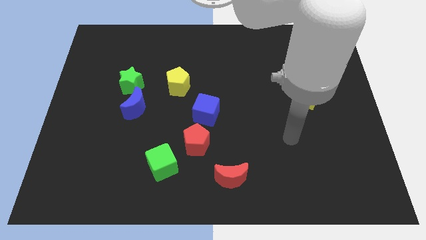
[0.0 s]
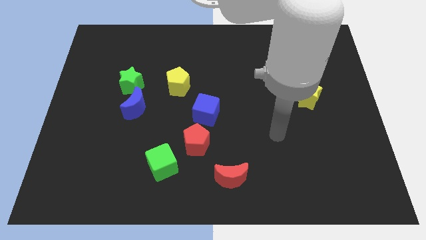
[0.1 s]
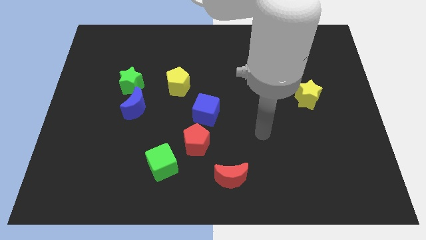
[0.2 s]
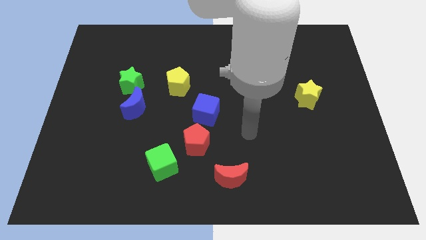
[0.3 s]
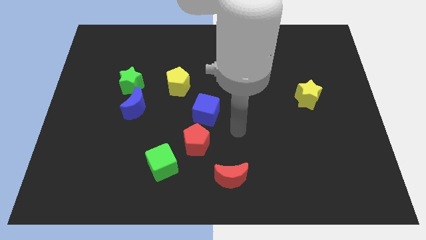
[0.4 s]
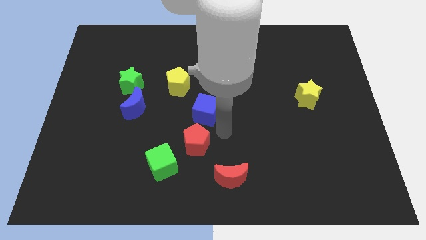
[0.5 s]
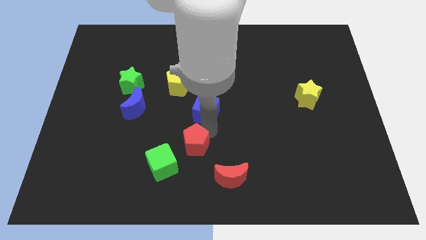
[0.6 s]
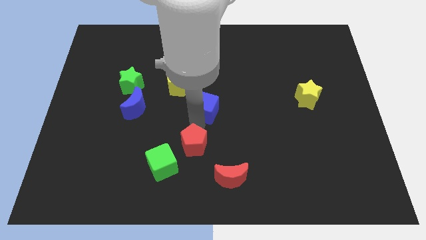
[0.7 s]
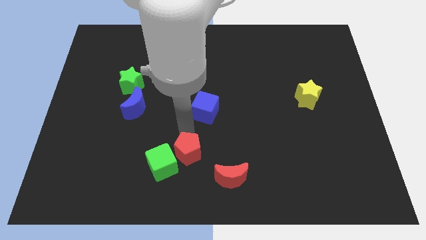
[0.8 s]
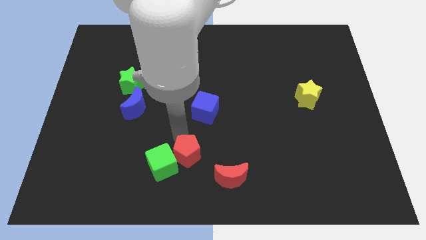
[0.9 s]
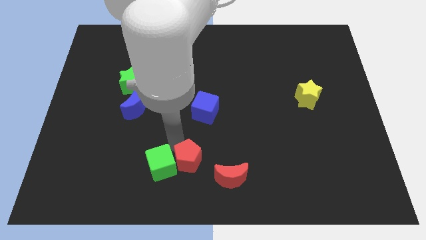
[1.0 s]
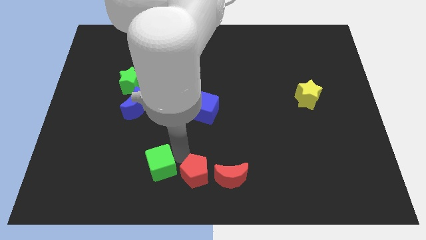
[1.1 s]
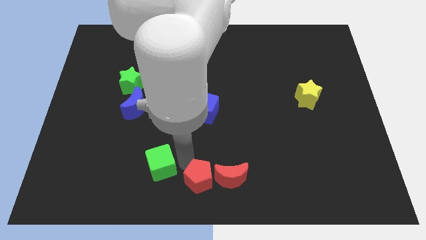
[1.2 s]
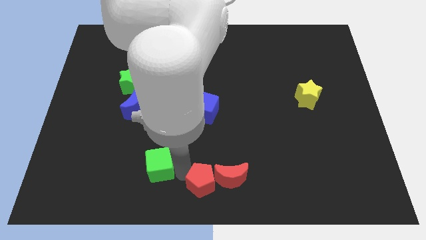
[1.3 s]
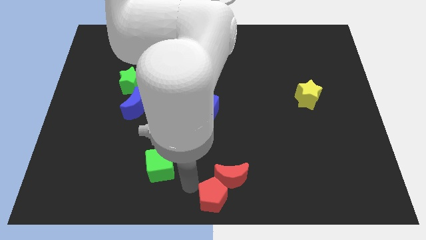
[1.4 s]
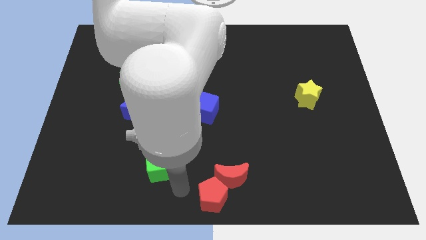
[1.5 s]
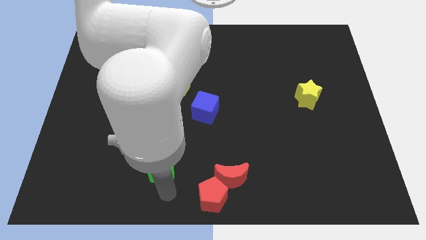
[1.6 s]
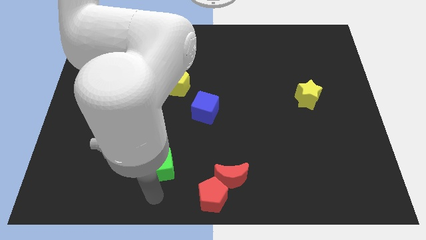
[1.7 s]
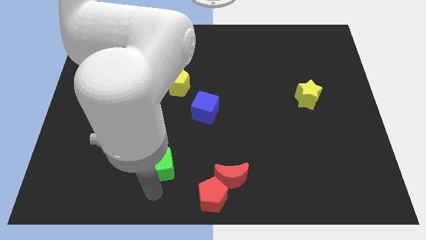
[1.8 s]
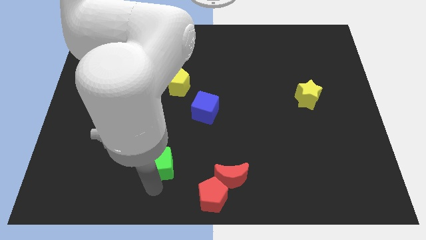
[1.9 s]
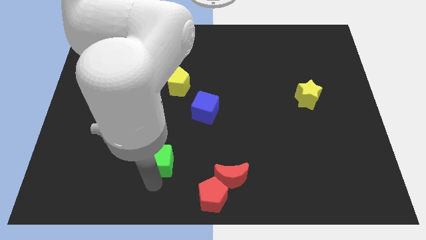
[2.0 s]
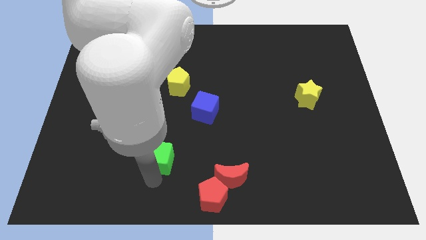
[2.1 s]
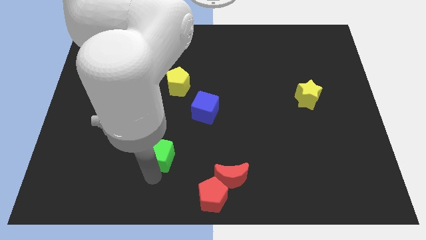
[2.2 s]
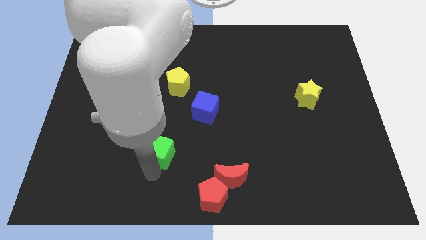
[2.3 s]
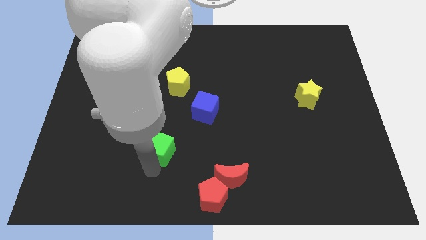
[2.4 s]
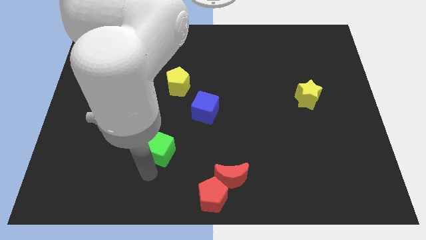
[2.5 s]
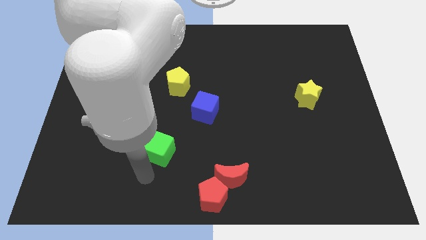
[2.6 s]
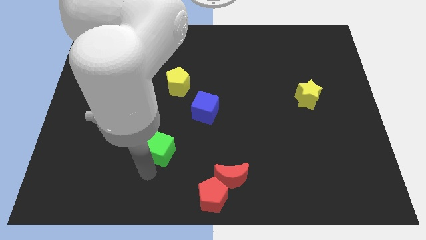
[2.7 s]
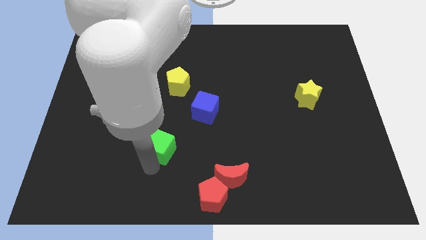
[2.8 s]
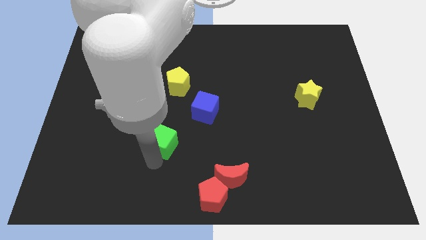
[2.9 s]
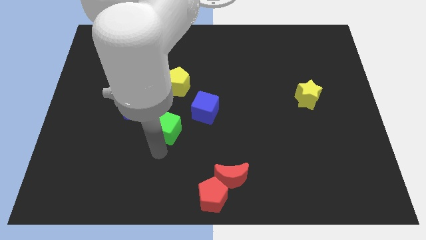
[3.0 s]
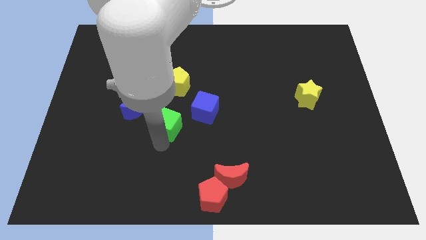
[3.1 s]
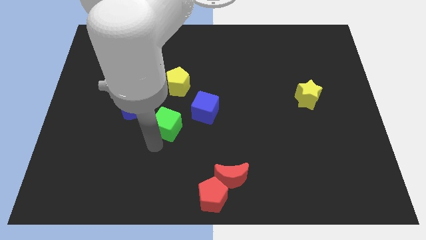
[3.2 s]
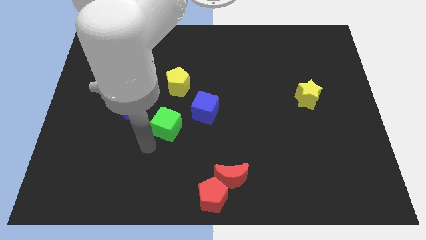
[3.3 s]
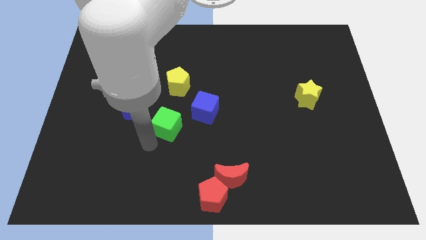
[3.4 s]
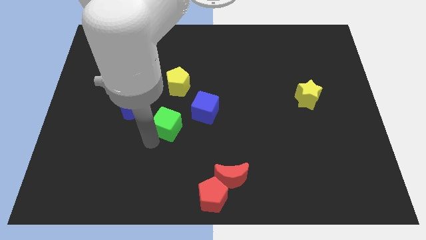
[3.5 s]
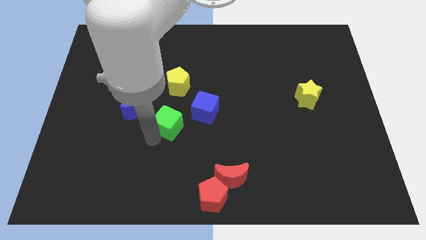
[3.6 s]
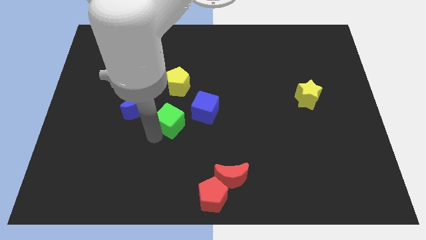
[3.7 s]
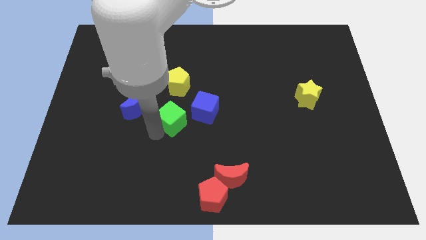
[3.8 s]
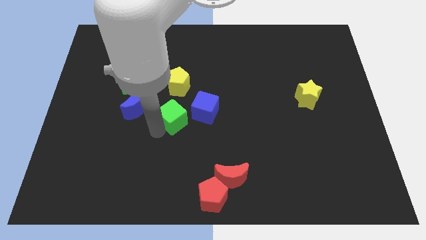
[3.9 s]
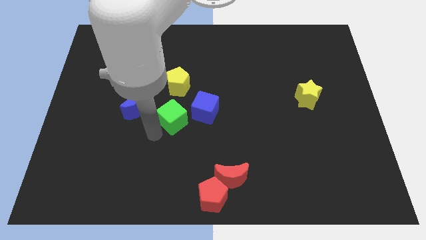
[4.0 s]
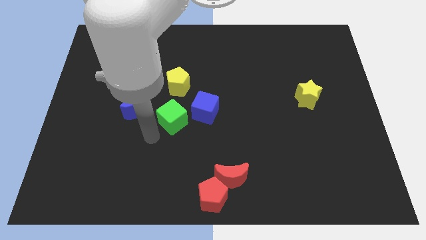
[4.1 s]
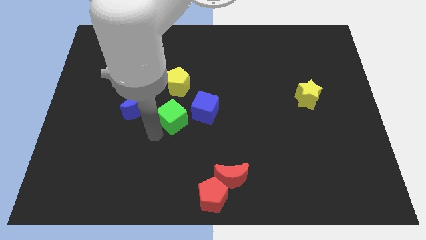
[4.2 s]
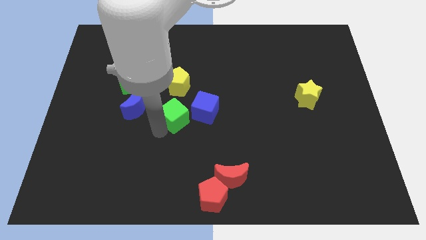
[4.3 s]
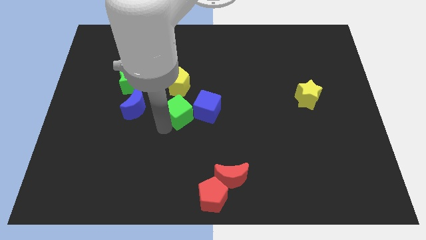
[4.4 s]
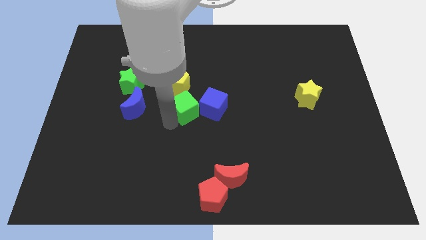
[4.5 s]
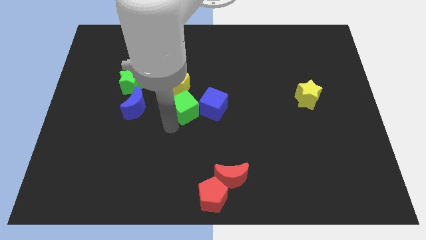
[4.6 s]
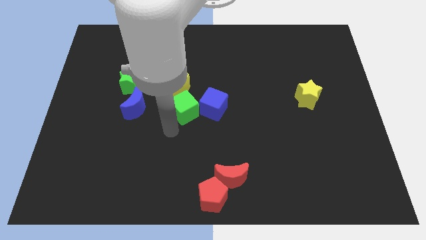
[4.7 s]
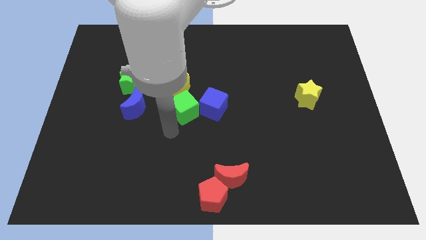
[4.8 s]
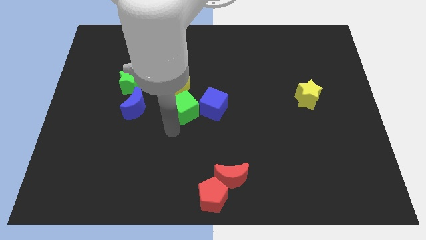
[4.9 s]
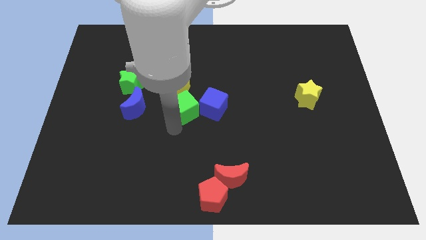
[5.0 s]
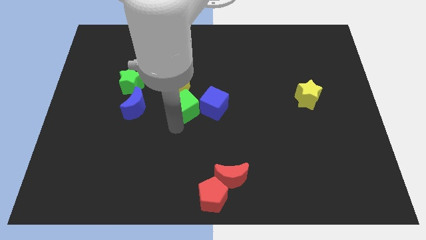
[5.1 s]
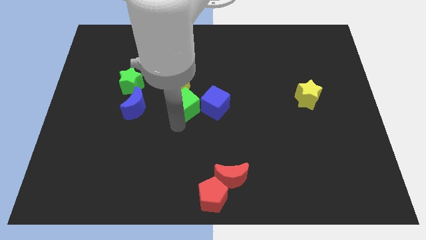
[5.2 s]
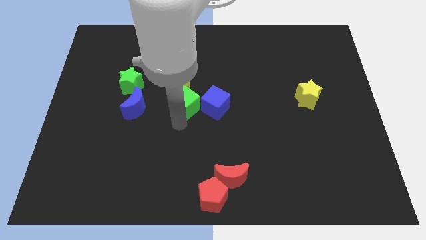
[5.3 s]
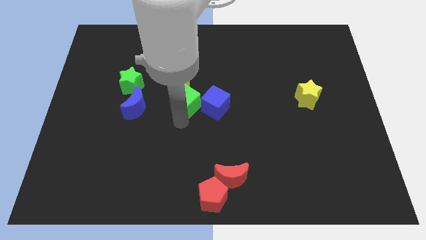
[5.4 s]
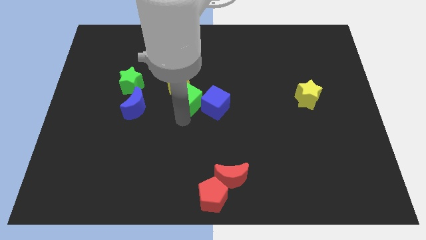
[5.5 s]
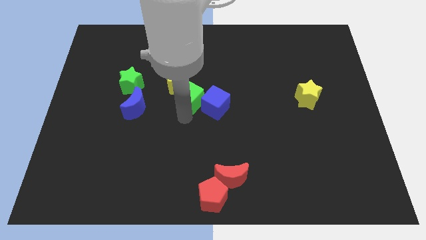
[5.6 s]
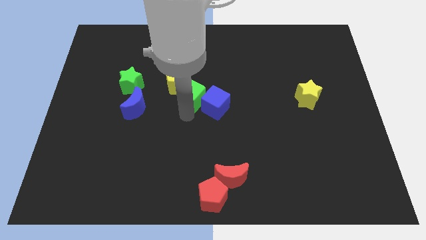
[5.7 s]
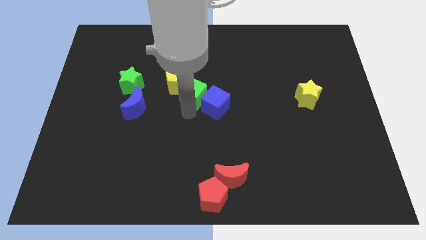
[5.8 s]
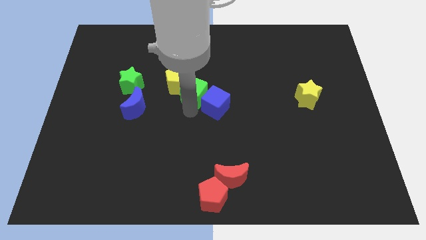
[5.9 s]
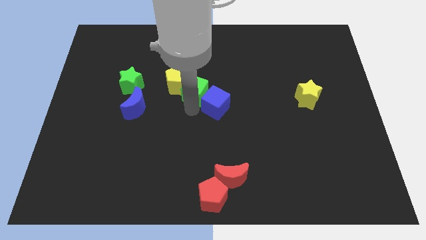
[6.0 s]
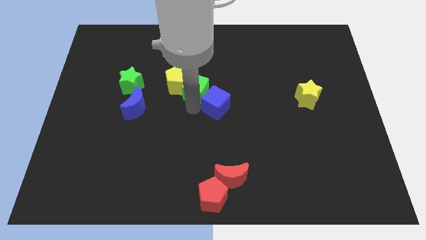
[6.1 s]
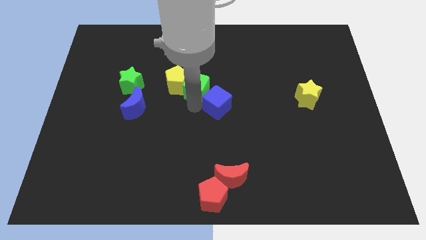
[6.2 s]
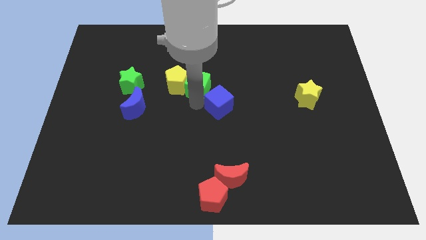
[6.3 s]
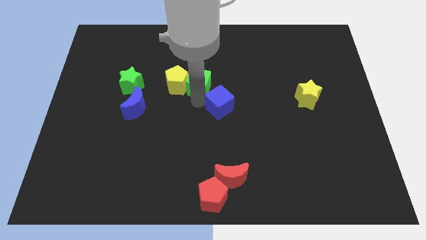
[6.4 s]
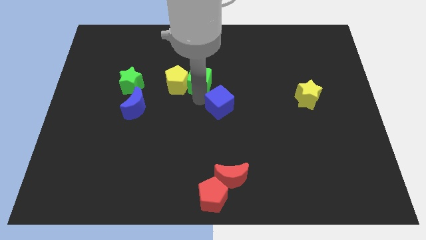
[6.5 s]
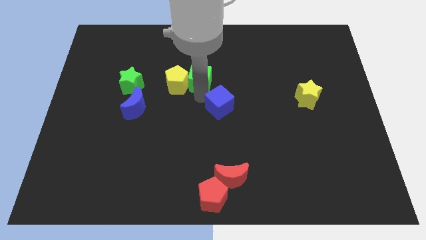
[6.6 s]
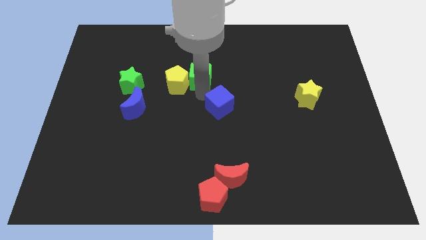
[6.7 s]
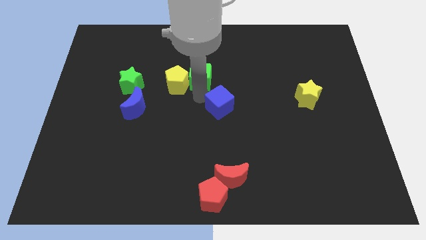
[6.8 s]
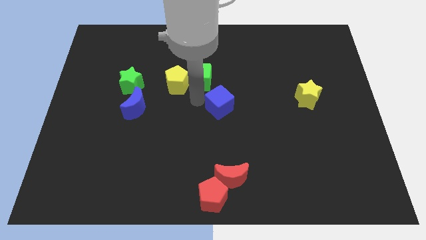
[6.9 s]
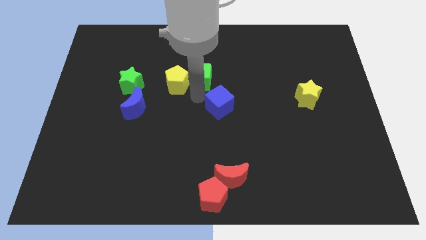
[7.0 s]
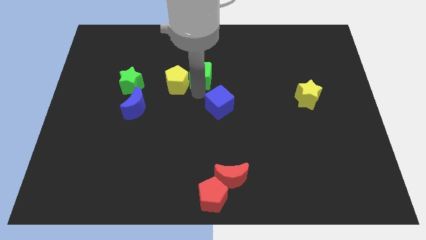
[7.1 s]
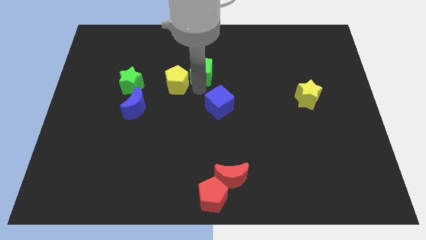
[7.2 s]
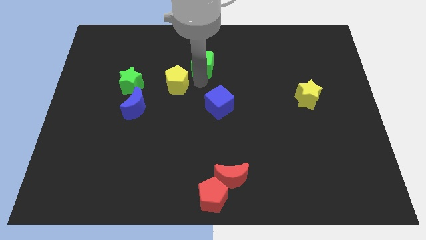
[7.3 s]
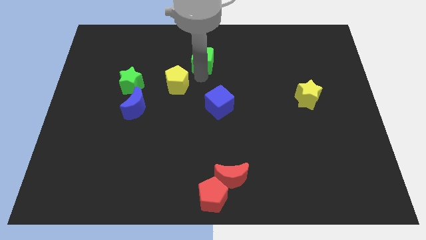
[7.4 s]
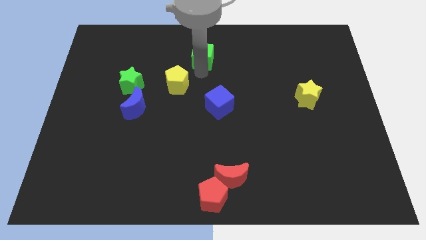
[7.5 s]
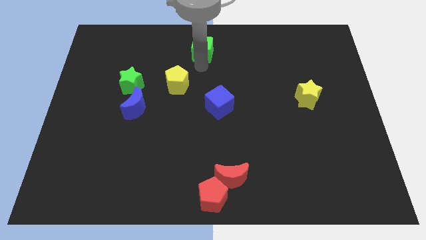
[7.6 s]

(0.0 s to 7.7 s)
move the green cube to the top side
